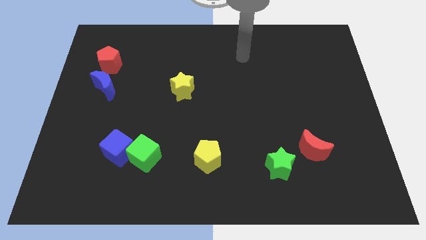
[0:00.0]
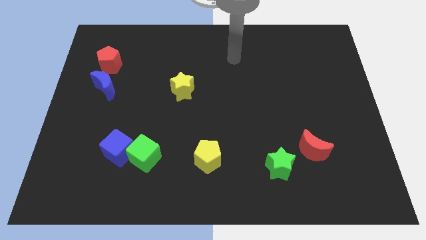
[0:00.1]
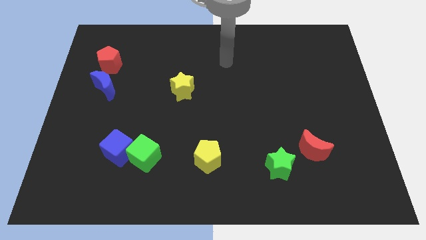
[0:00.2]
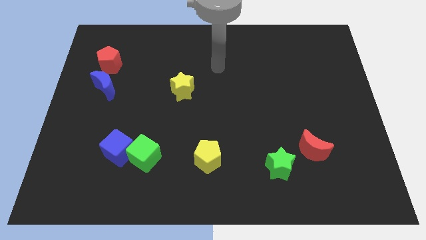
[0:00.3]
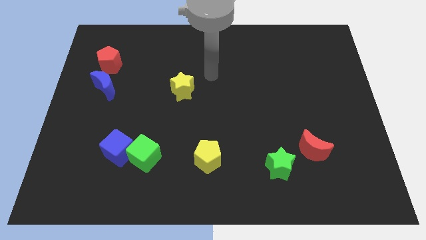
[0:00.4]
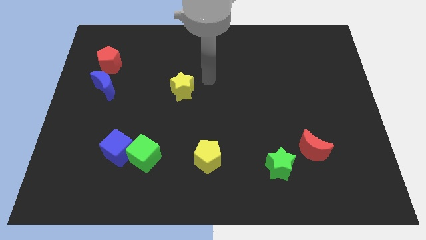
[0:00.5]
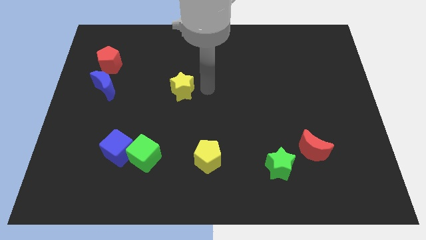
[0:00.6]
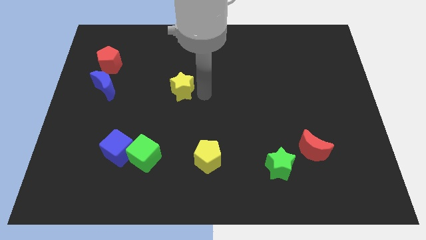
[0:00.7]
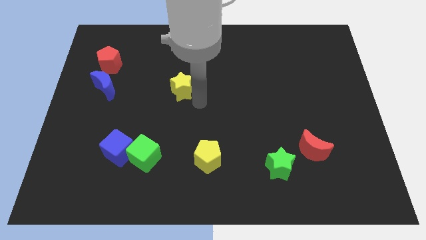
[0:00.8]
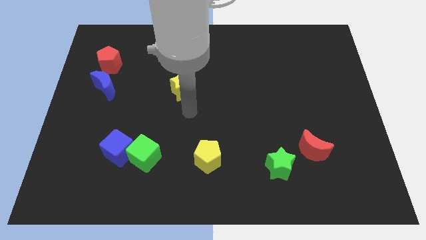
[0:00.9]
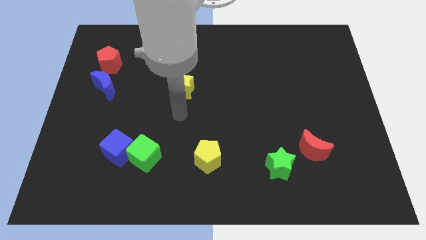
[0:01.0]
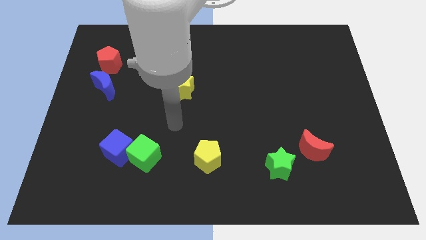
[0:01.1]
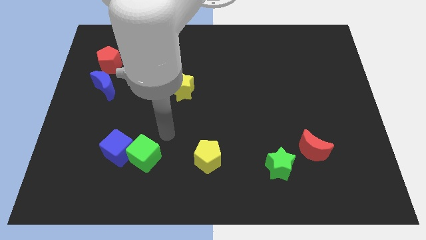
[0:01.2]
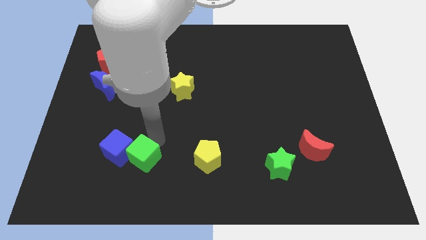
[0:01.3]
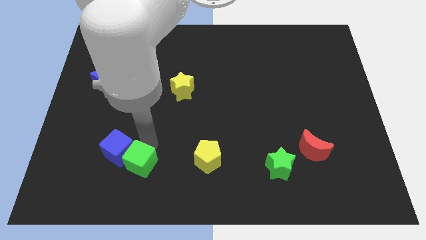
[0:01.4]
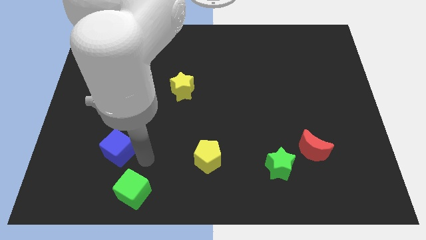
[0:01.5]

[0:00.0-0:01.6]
separate the blue cube from the green cube

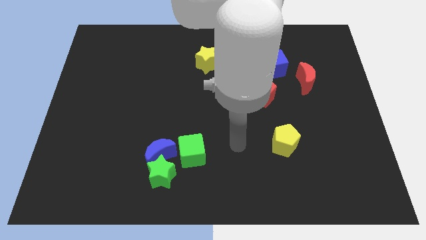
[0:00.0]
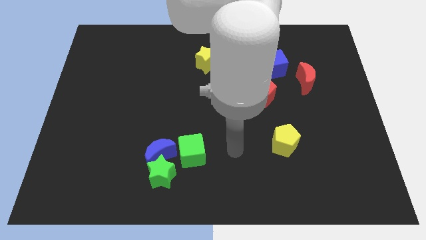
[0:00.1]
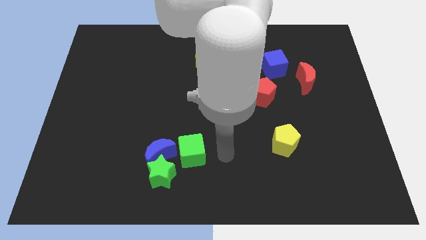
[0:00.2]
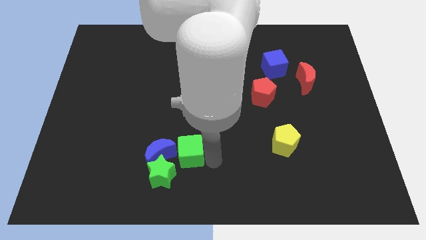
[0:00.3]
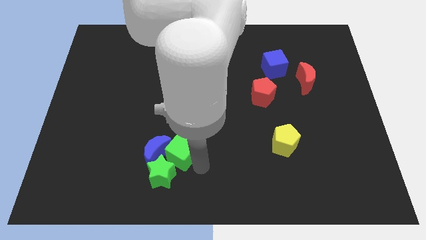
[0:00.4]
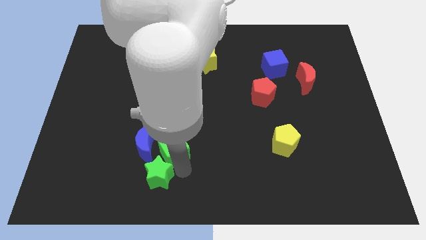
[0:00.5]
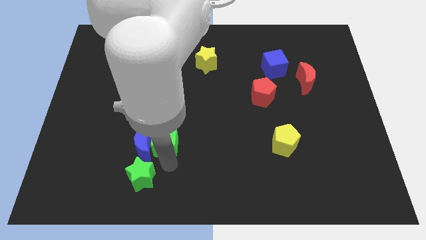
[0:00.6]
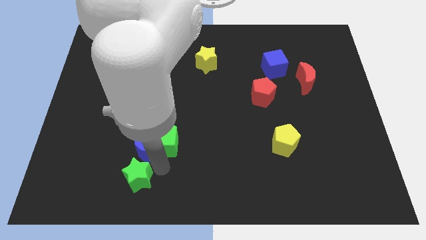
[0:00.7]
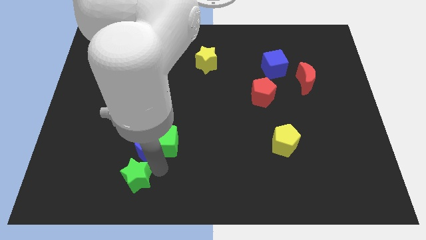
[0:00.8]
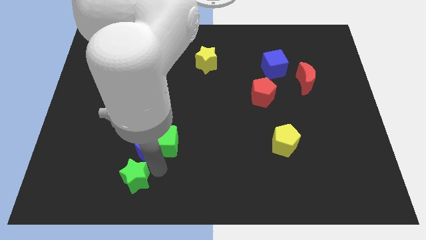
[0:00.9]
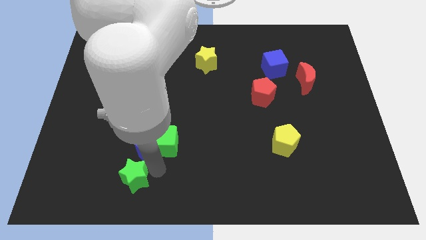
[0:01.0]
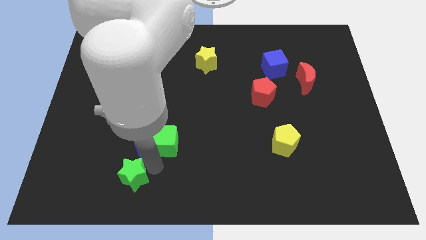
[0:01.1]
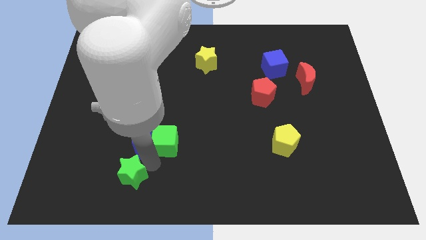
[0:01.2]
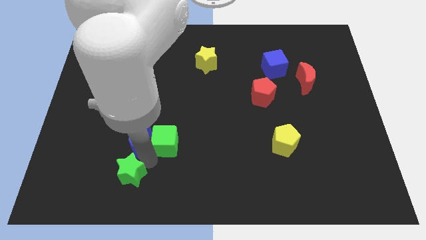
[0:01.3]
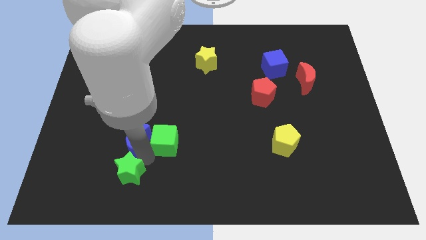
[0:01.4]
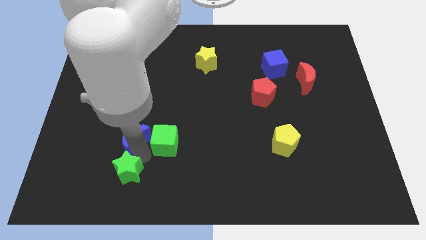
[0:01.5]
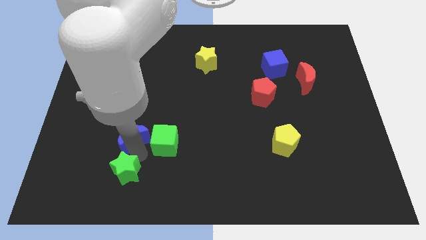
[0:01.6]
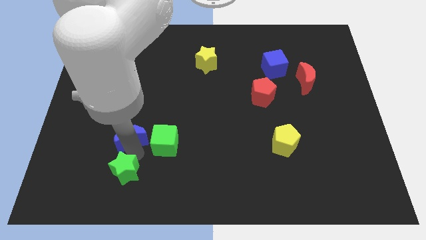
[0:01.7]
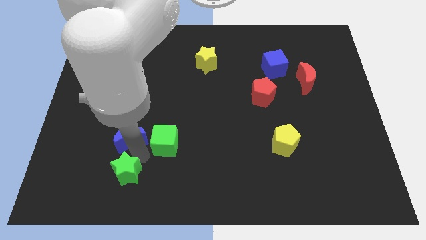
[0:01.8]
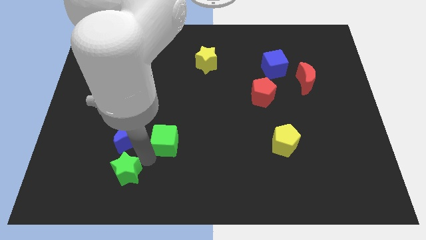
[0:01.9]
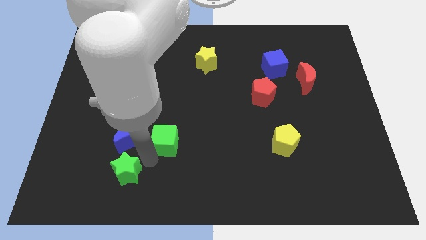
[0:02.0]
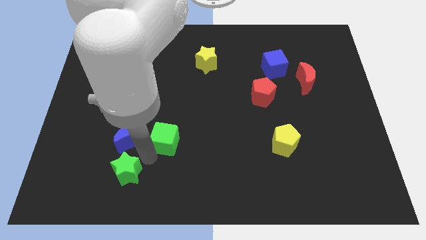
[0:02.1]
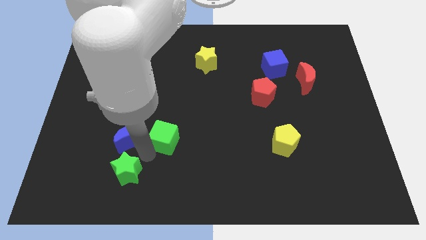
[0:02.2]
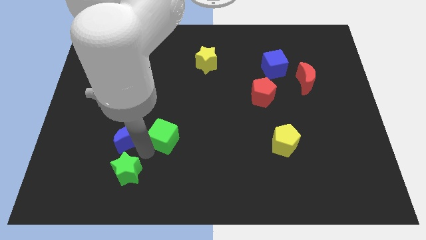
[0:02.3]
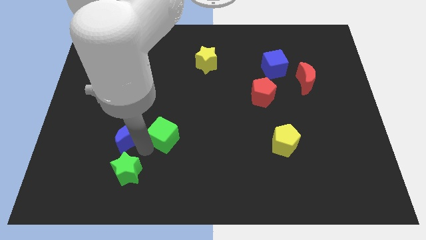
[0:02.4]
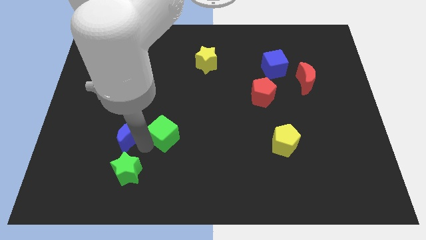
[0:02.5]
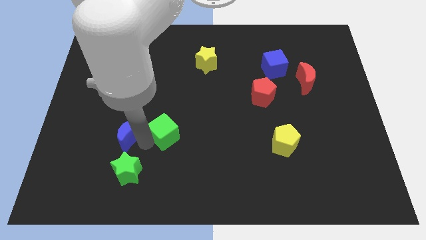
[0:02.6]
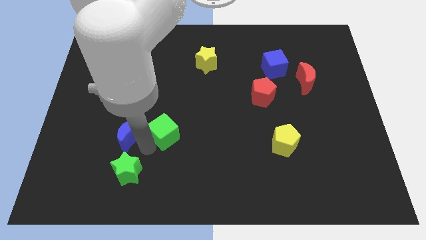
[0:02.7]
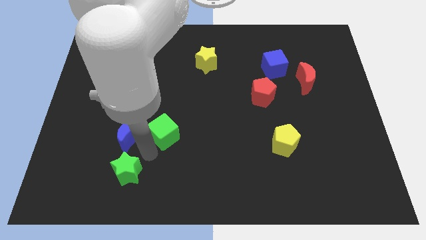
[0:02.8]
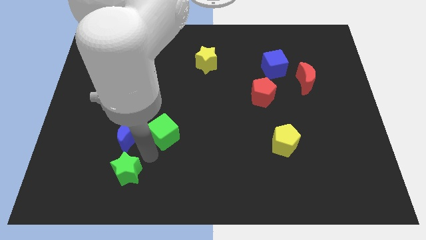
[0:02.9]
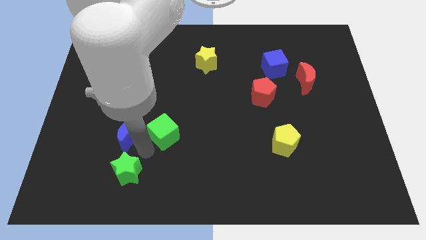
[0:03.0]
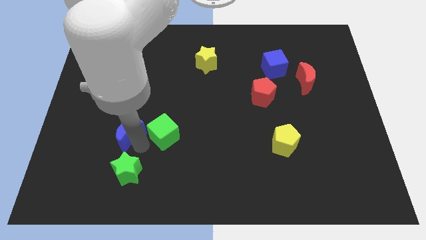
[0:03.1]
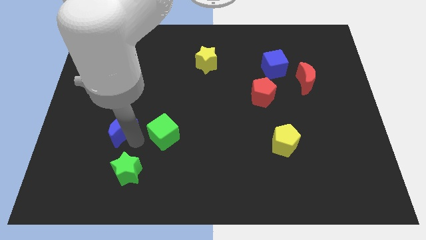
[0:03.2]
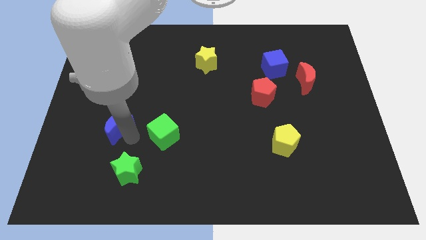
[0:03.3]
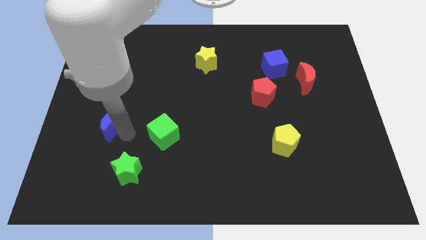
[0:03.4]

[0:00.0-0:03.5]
pull the blue moon apart from the green star and green cube

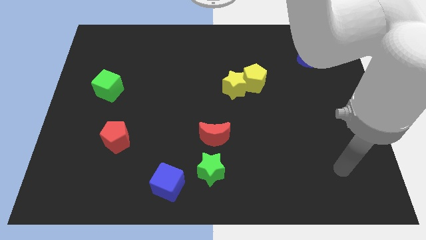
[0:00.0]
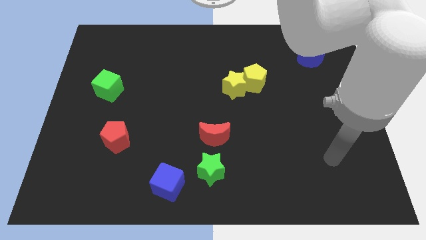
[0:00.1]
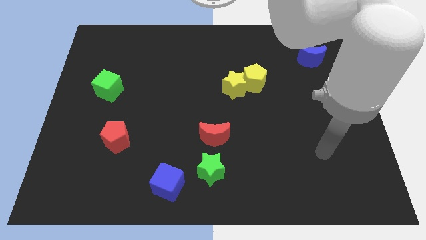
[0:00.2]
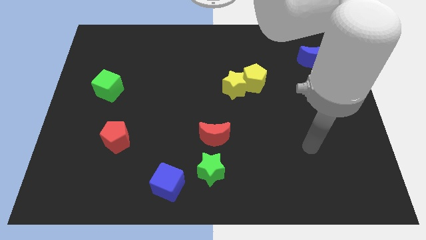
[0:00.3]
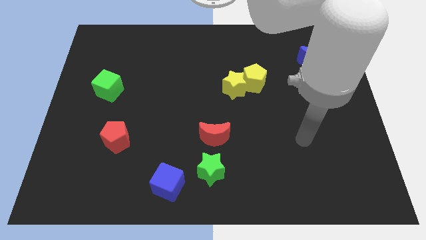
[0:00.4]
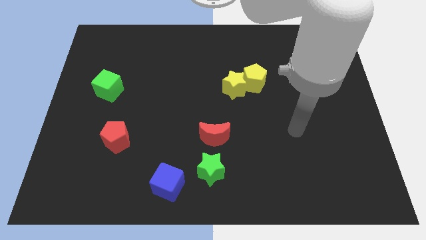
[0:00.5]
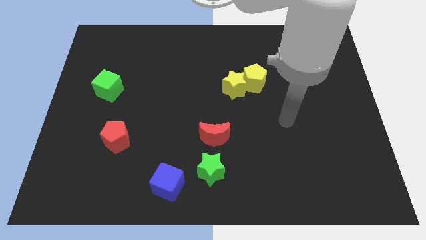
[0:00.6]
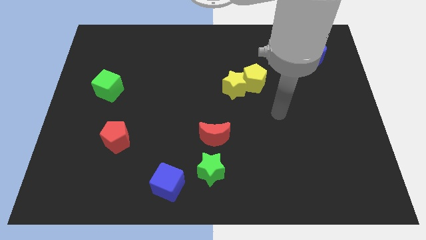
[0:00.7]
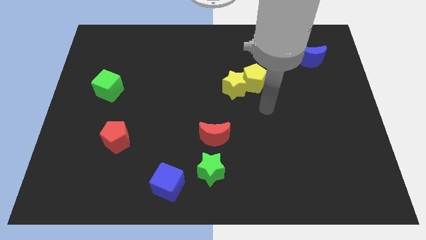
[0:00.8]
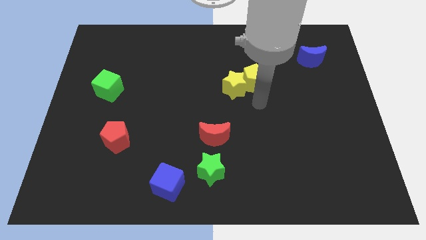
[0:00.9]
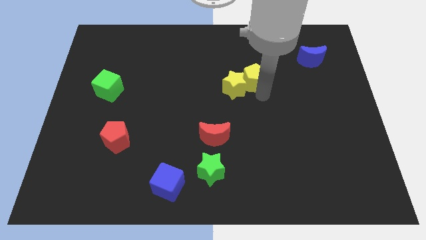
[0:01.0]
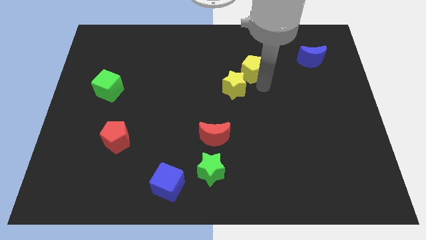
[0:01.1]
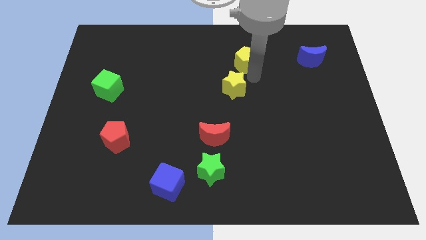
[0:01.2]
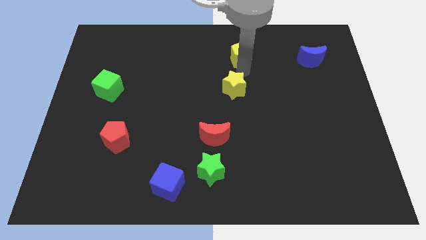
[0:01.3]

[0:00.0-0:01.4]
pull the yellow star apart from the yellow pentagon

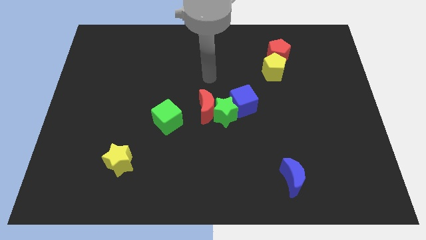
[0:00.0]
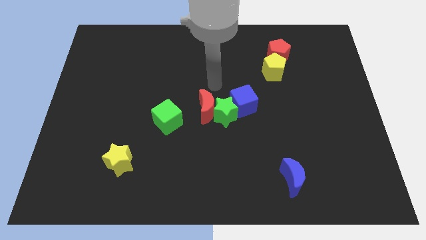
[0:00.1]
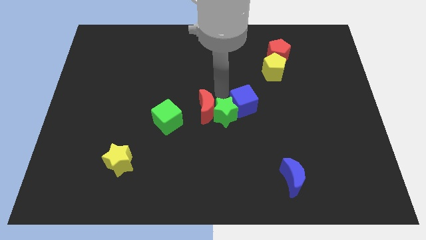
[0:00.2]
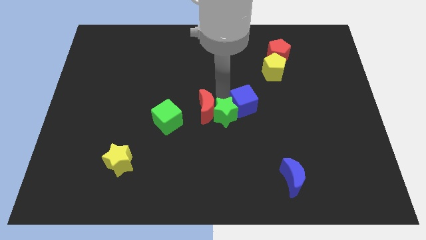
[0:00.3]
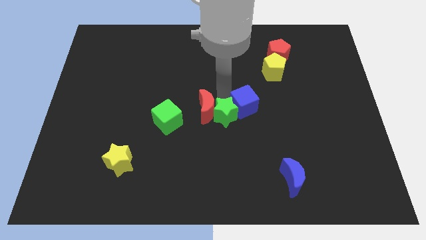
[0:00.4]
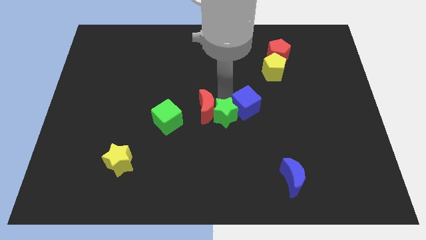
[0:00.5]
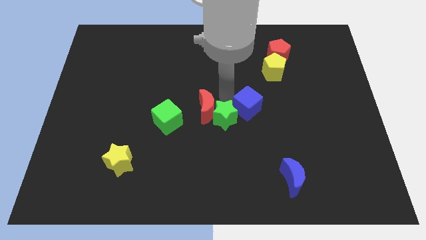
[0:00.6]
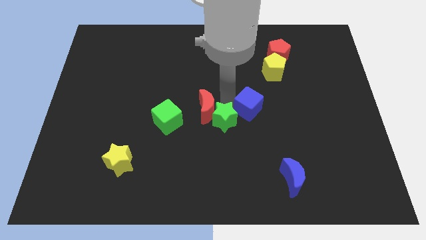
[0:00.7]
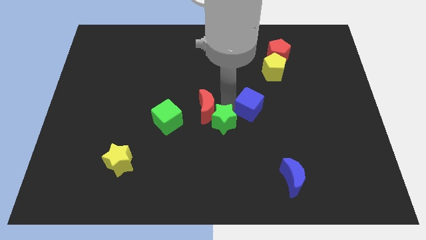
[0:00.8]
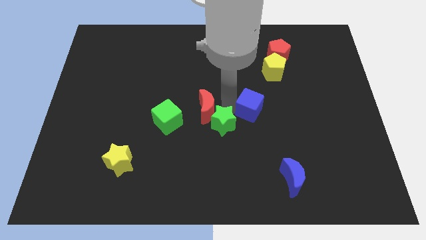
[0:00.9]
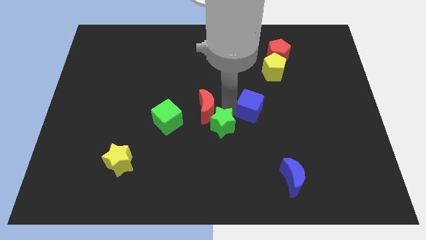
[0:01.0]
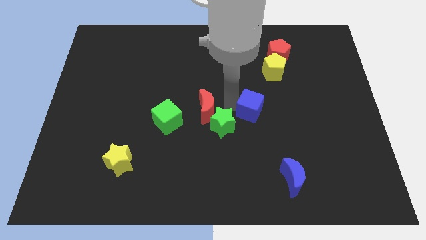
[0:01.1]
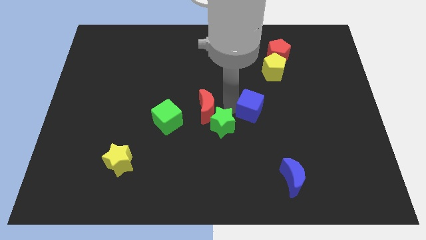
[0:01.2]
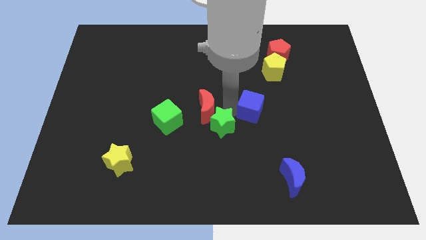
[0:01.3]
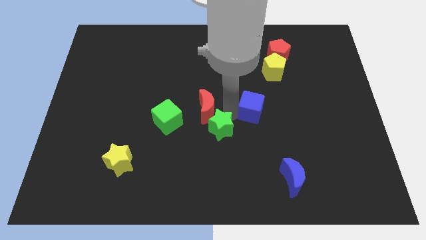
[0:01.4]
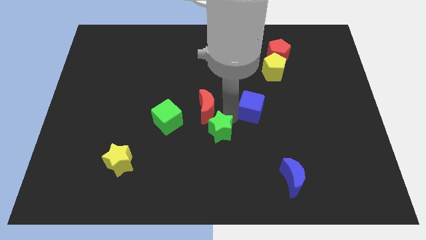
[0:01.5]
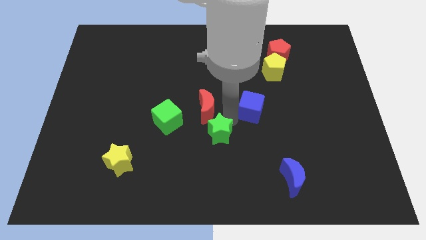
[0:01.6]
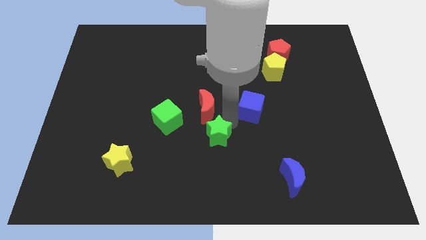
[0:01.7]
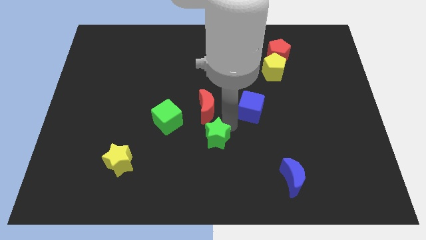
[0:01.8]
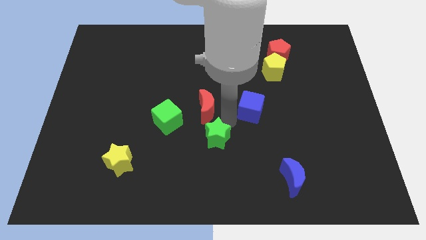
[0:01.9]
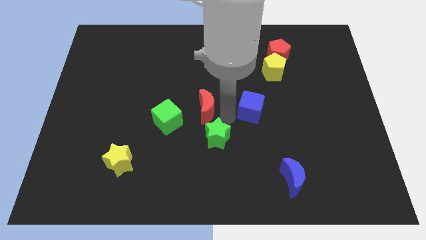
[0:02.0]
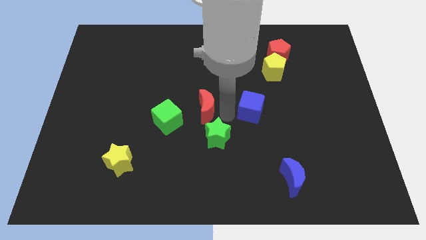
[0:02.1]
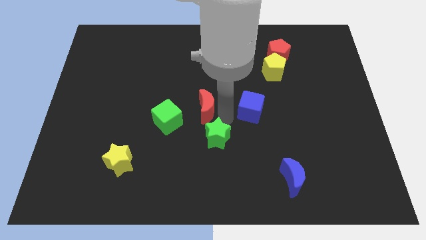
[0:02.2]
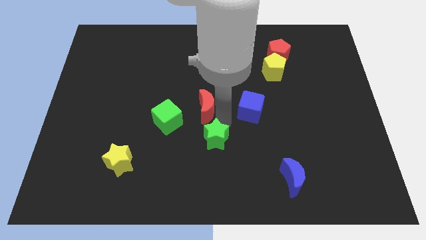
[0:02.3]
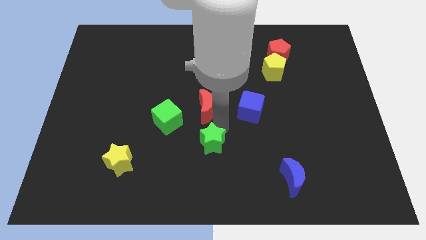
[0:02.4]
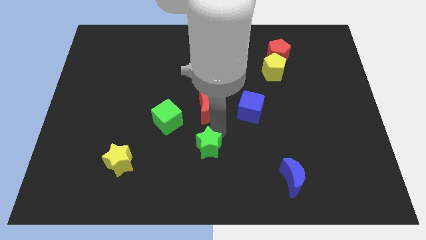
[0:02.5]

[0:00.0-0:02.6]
separate the green star from the red moon and blue cube

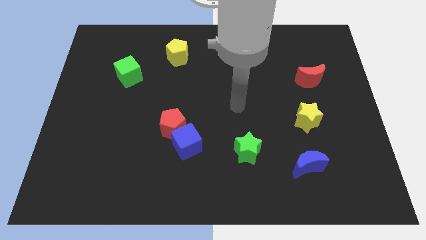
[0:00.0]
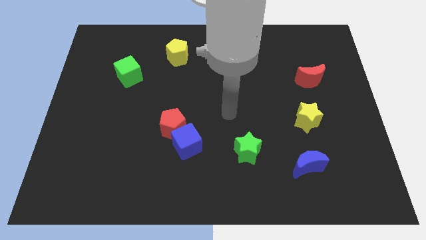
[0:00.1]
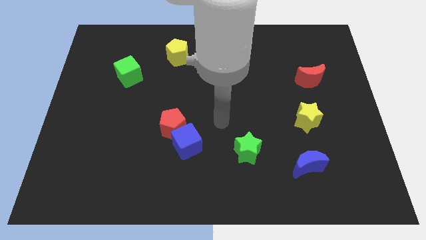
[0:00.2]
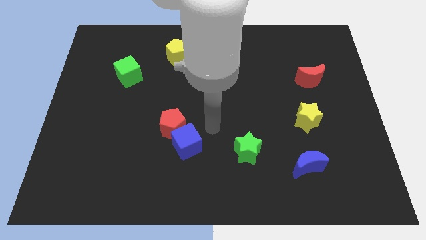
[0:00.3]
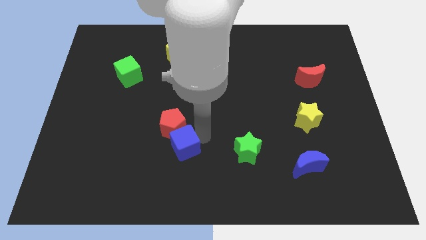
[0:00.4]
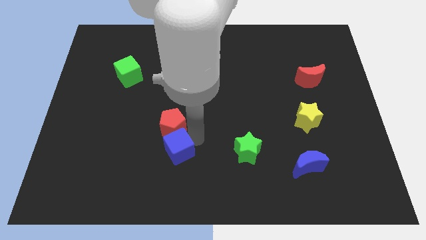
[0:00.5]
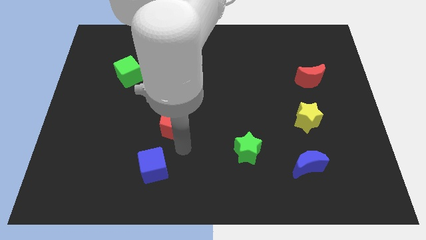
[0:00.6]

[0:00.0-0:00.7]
separate the red pentagon from the blue cube
